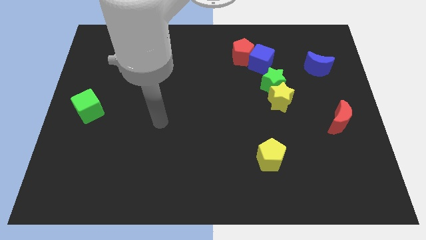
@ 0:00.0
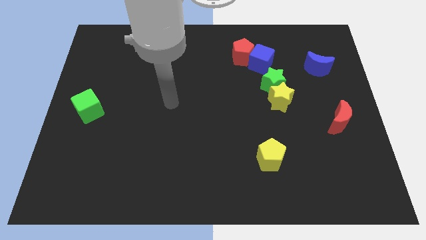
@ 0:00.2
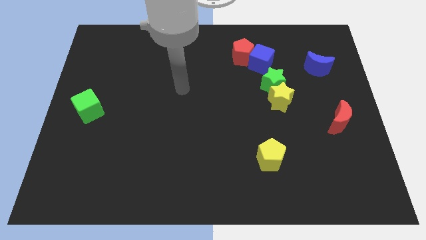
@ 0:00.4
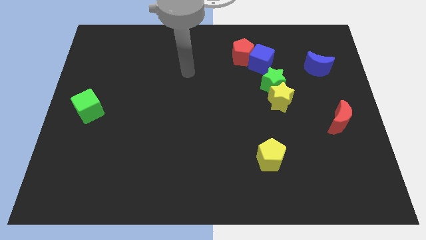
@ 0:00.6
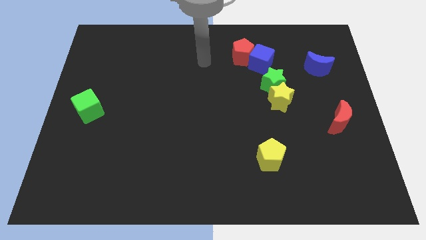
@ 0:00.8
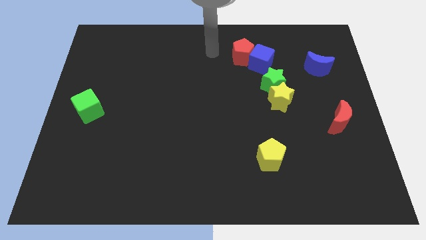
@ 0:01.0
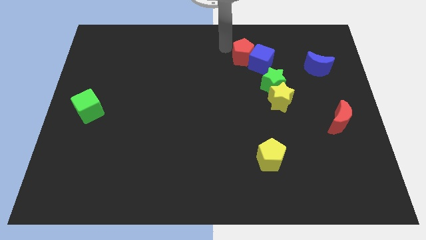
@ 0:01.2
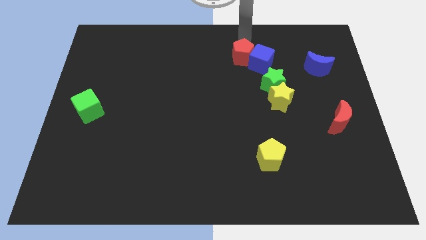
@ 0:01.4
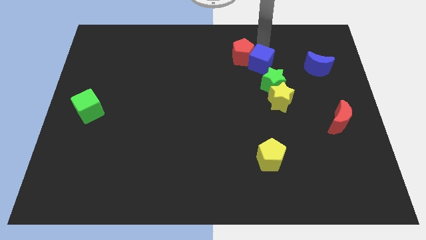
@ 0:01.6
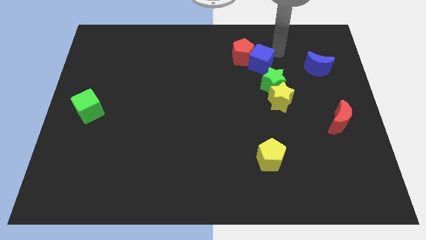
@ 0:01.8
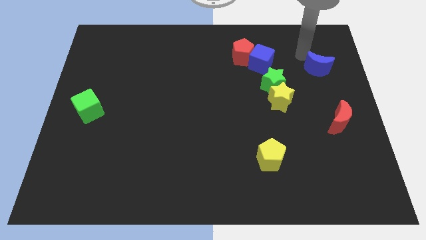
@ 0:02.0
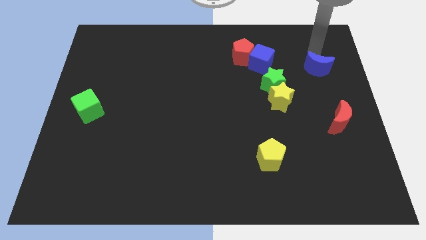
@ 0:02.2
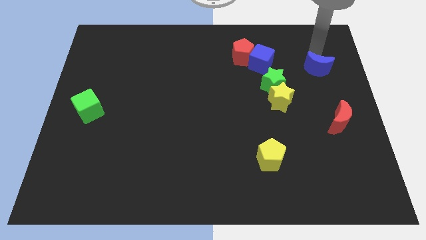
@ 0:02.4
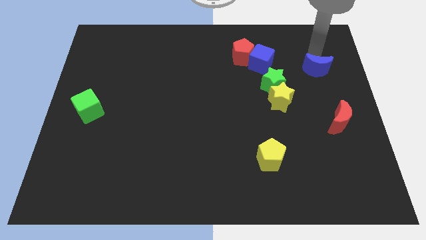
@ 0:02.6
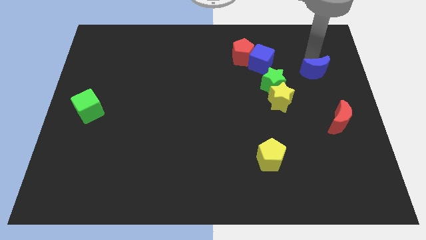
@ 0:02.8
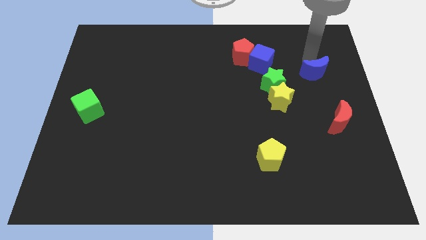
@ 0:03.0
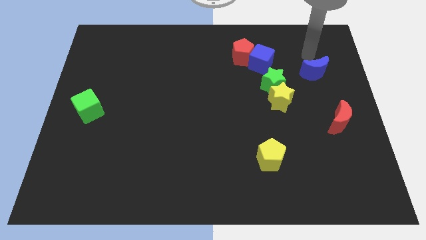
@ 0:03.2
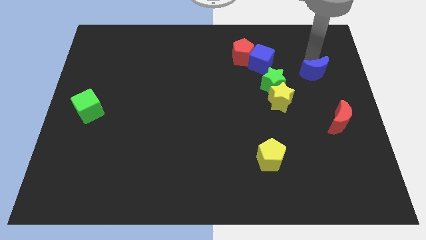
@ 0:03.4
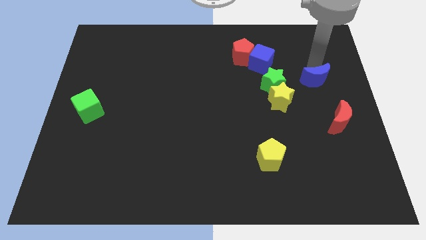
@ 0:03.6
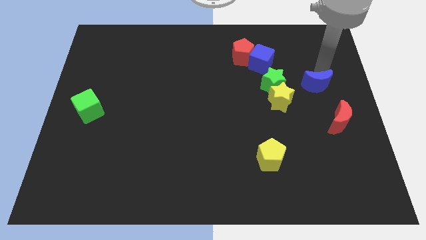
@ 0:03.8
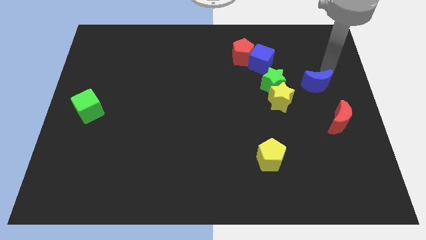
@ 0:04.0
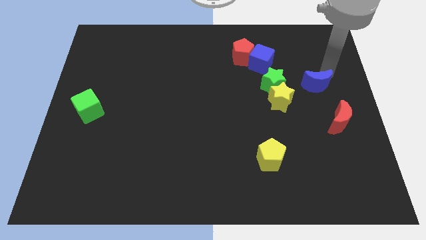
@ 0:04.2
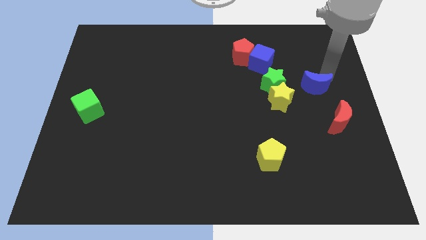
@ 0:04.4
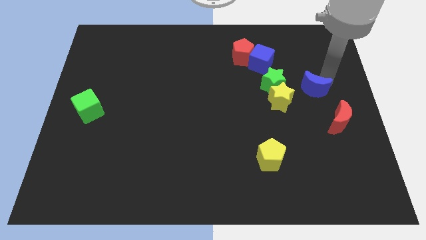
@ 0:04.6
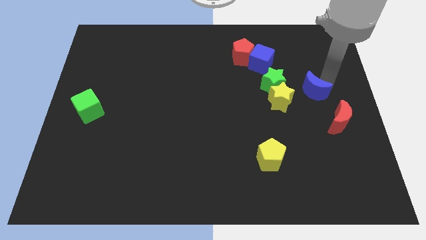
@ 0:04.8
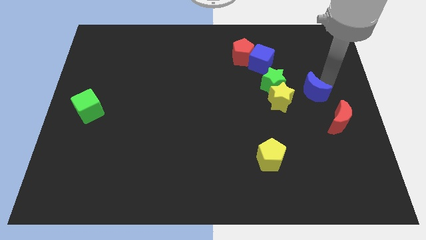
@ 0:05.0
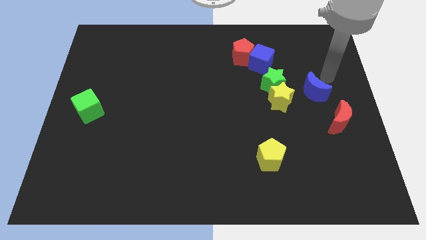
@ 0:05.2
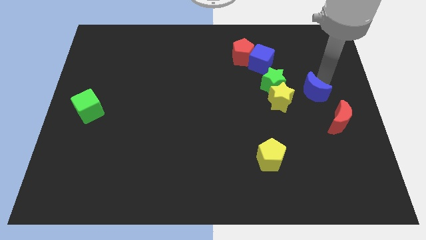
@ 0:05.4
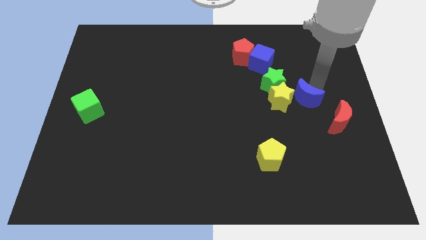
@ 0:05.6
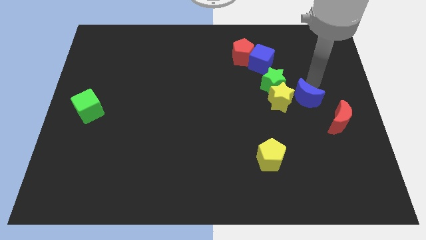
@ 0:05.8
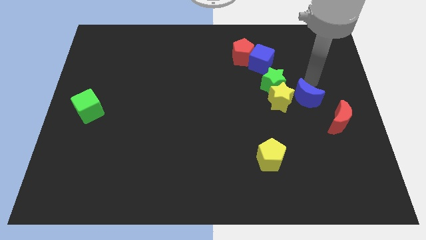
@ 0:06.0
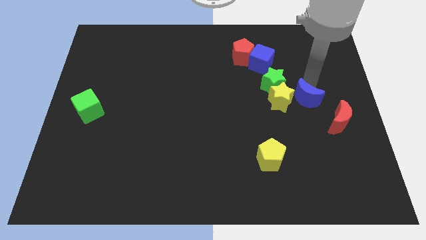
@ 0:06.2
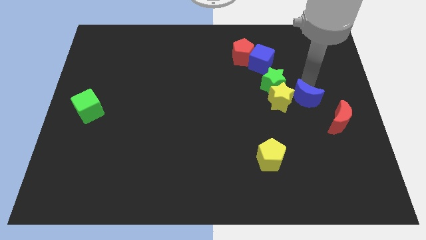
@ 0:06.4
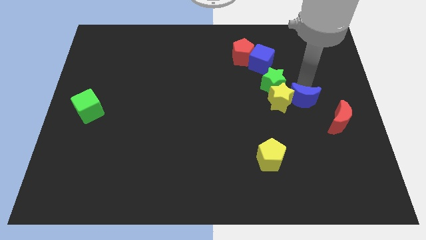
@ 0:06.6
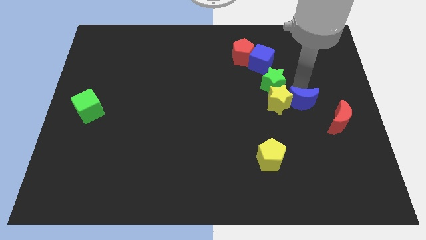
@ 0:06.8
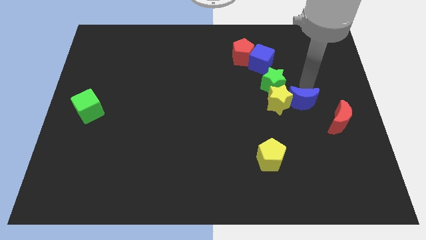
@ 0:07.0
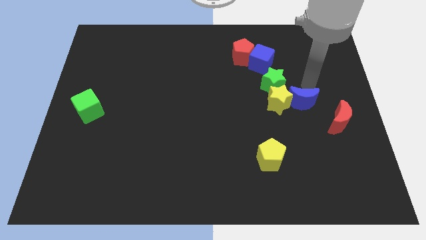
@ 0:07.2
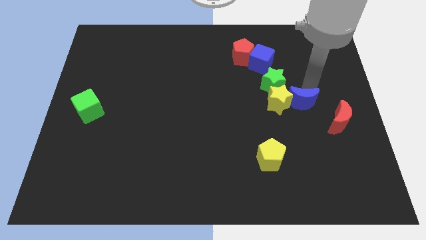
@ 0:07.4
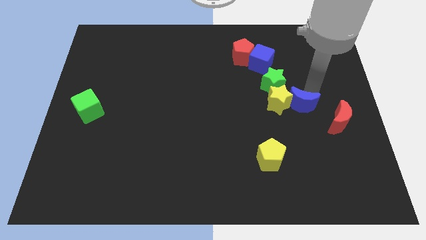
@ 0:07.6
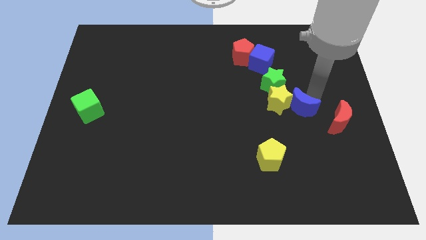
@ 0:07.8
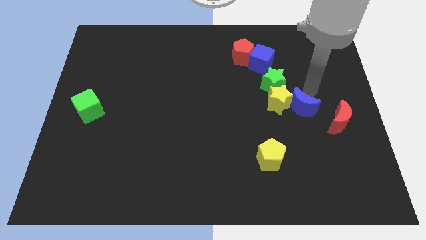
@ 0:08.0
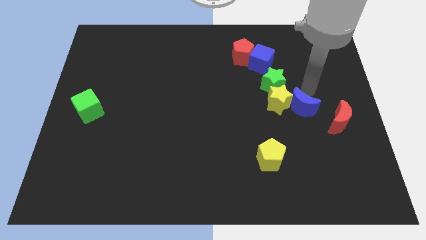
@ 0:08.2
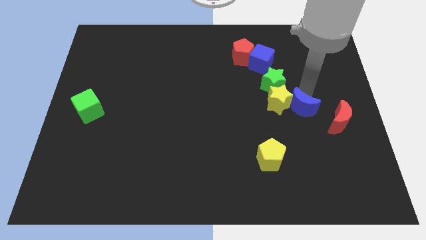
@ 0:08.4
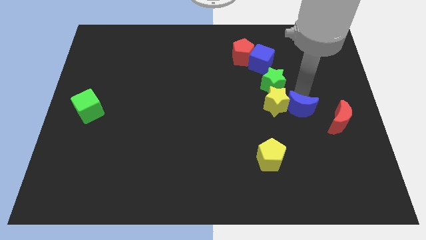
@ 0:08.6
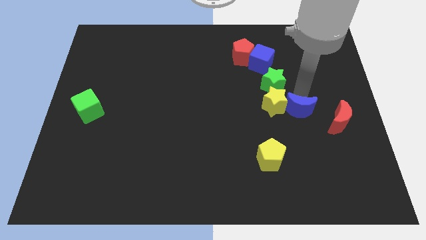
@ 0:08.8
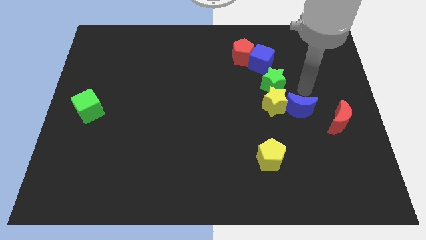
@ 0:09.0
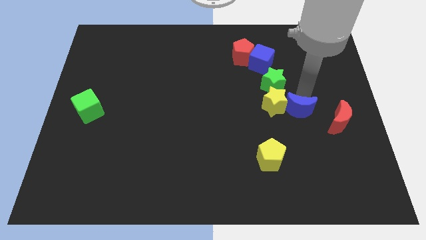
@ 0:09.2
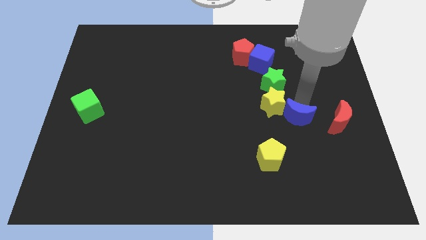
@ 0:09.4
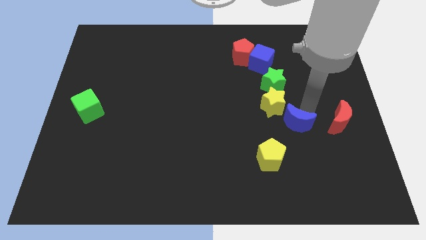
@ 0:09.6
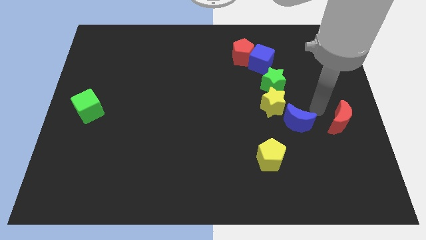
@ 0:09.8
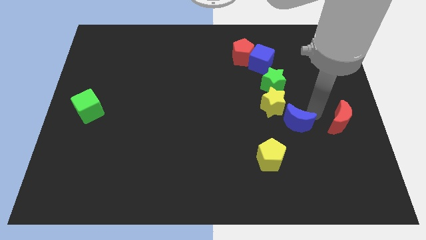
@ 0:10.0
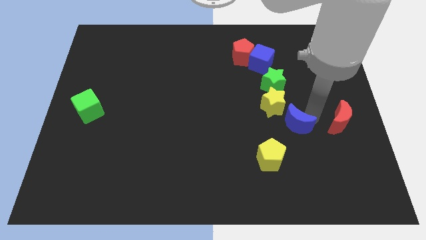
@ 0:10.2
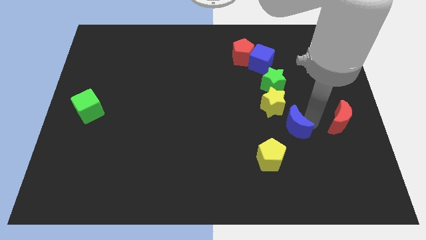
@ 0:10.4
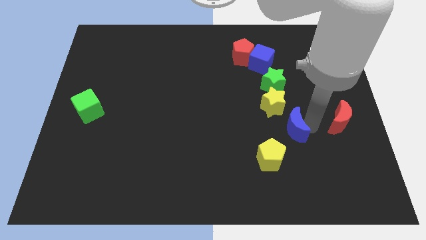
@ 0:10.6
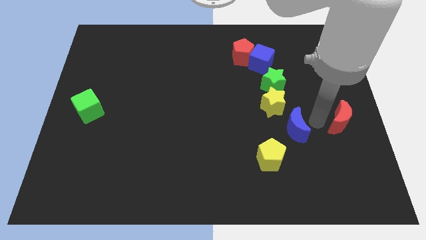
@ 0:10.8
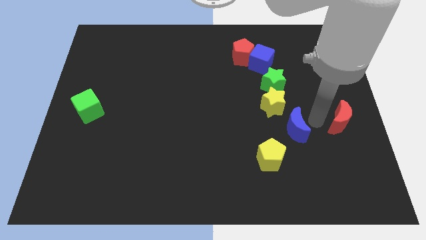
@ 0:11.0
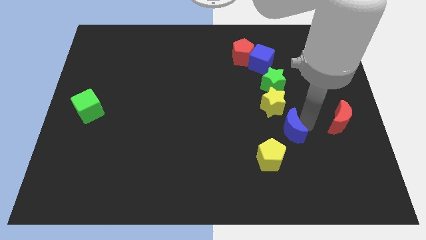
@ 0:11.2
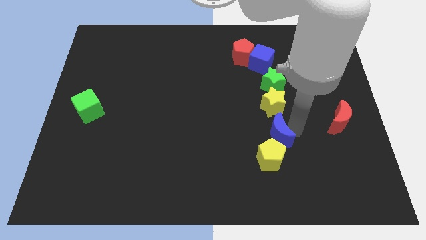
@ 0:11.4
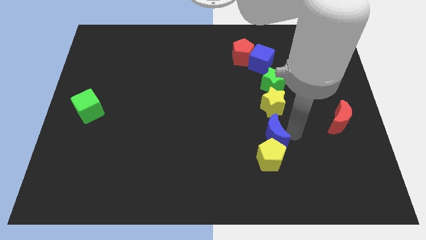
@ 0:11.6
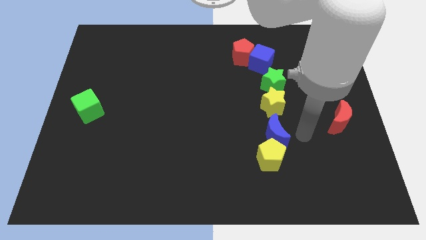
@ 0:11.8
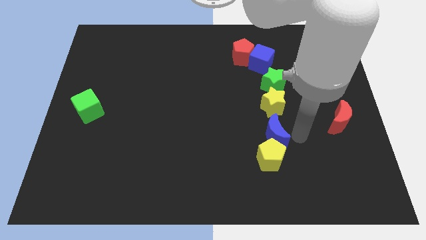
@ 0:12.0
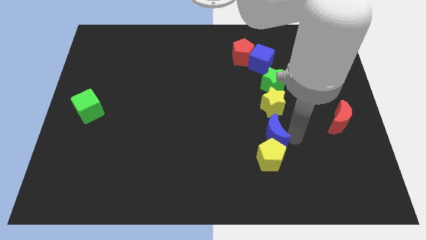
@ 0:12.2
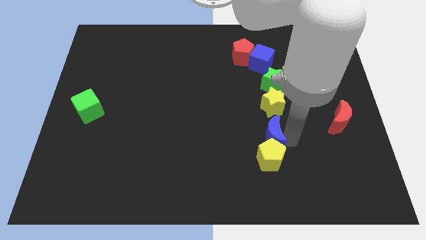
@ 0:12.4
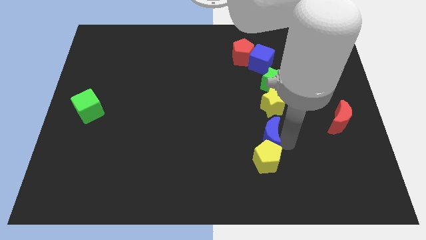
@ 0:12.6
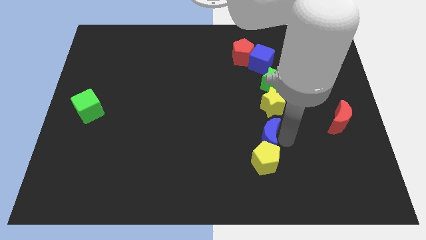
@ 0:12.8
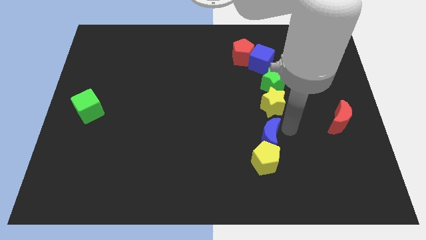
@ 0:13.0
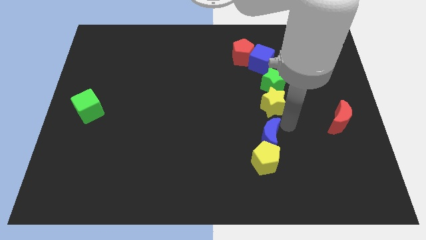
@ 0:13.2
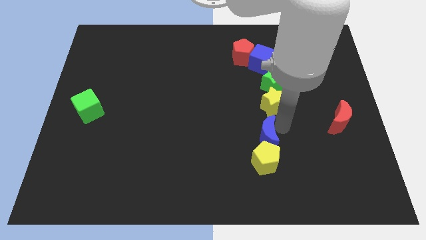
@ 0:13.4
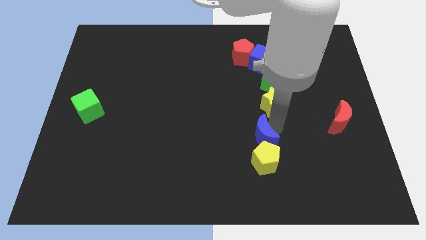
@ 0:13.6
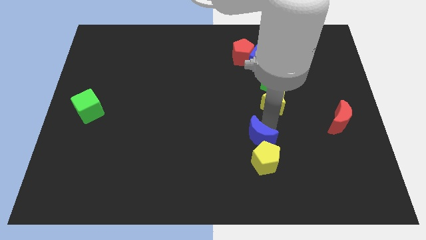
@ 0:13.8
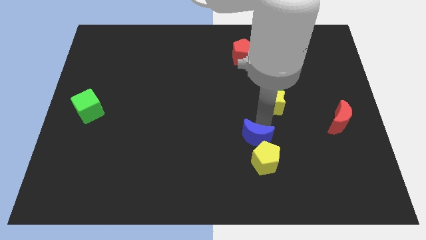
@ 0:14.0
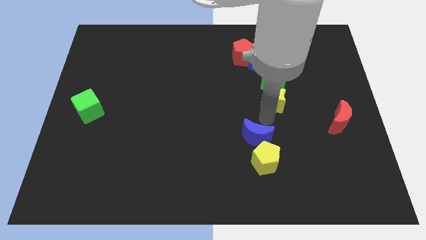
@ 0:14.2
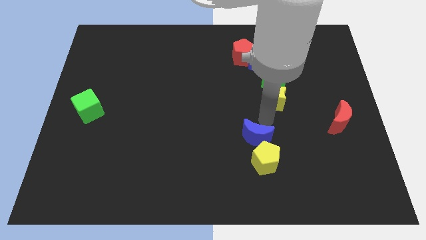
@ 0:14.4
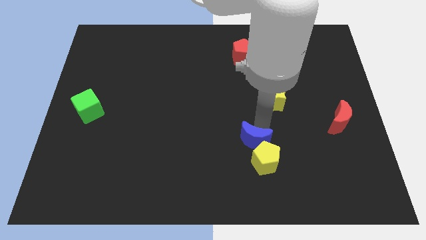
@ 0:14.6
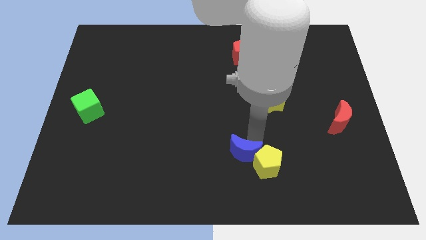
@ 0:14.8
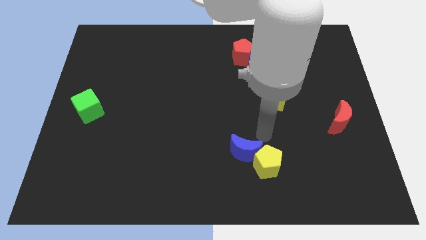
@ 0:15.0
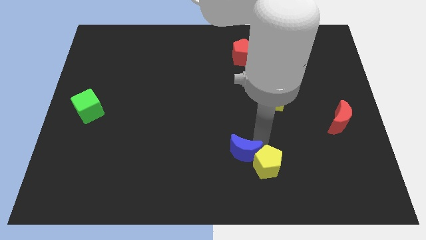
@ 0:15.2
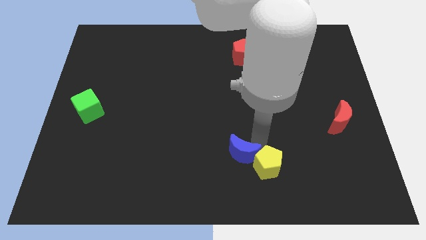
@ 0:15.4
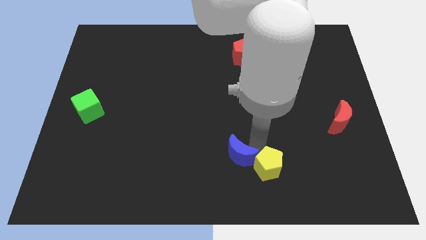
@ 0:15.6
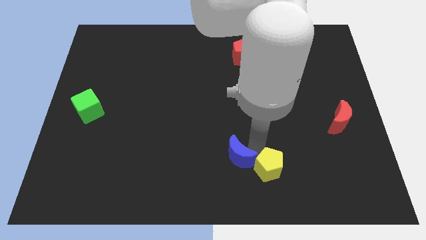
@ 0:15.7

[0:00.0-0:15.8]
push the blue moon to the bottom side
